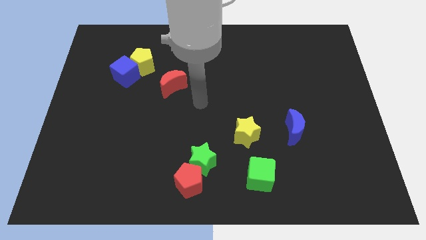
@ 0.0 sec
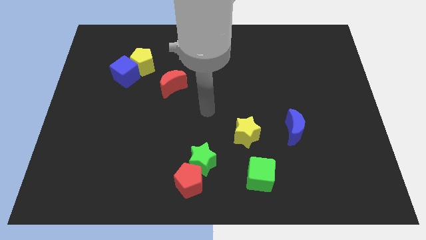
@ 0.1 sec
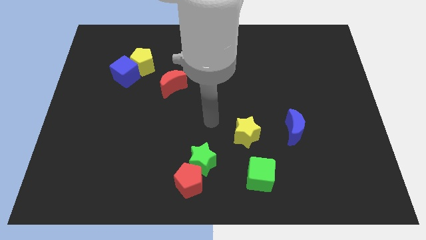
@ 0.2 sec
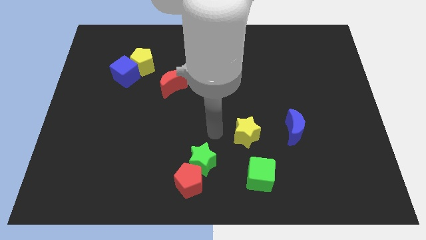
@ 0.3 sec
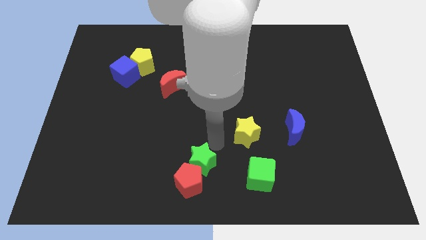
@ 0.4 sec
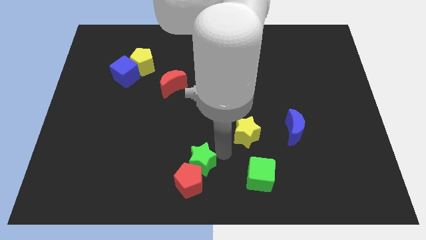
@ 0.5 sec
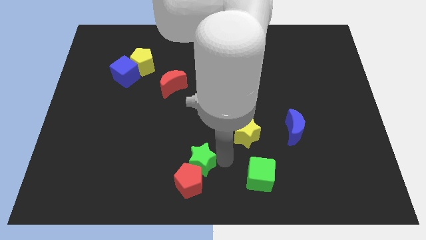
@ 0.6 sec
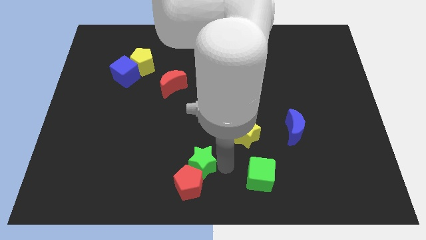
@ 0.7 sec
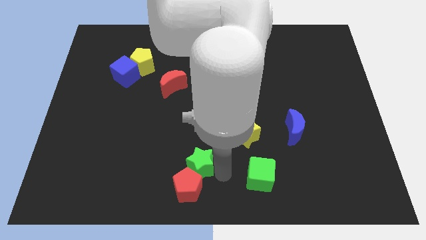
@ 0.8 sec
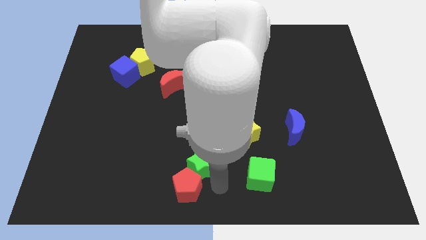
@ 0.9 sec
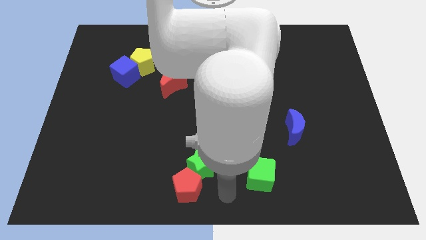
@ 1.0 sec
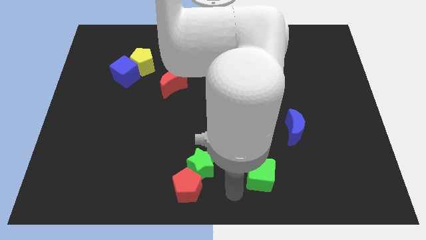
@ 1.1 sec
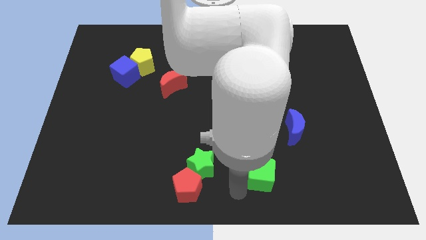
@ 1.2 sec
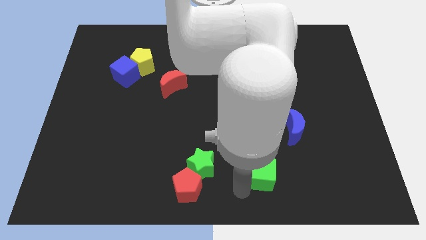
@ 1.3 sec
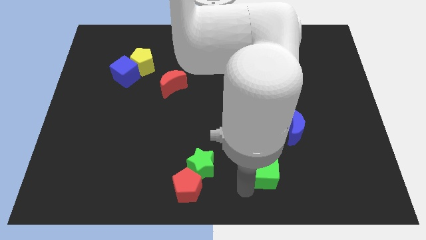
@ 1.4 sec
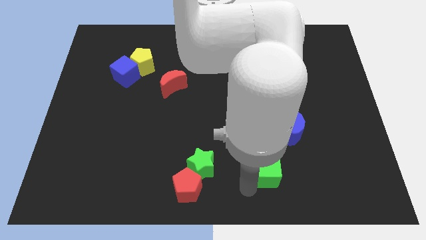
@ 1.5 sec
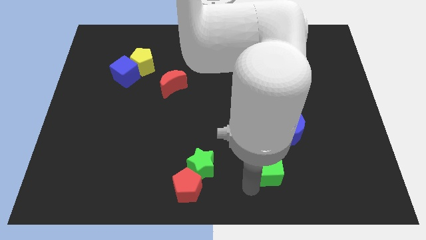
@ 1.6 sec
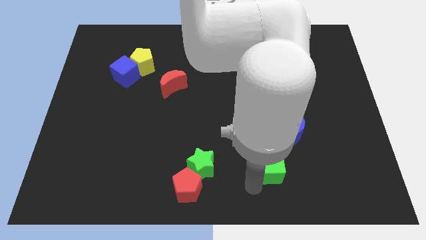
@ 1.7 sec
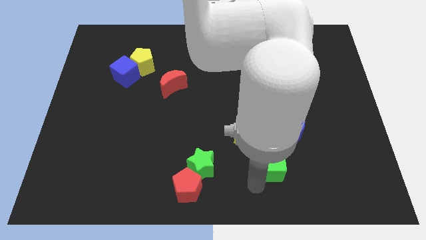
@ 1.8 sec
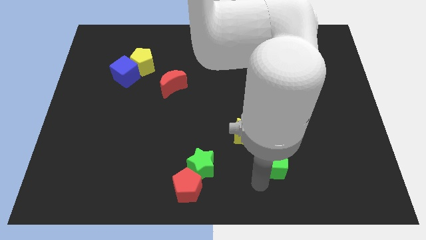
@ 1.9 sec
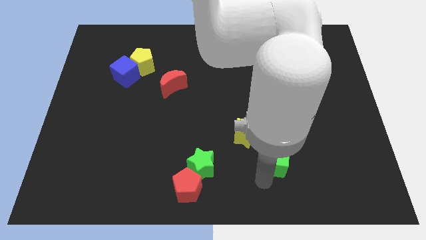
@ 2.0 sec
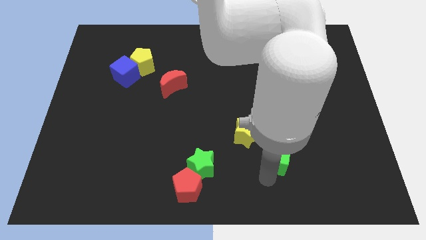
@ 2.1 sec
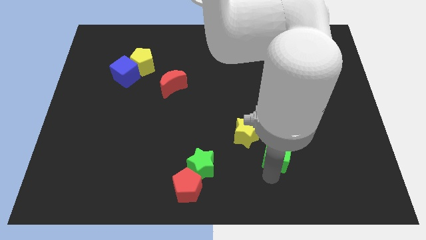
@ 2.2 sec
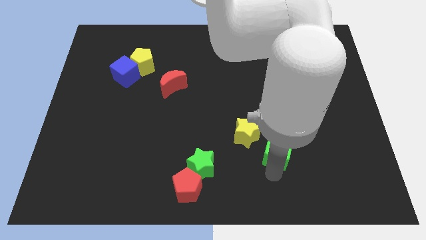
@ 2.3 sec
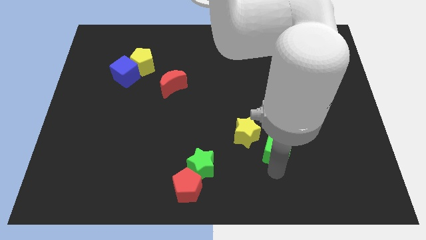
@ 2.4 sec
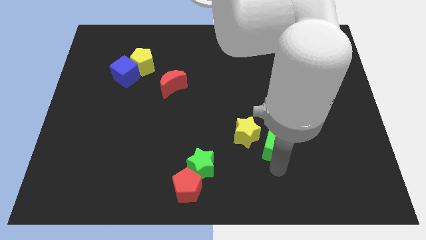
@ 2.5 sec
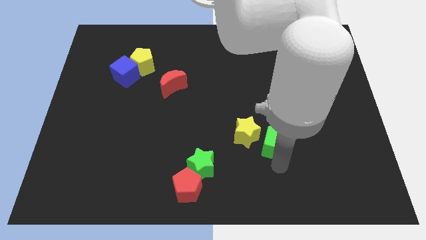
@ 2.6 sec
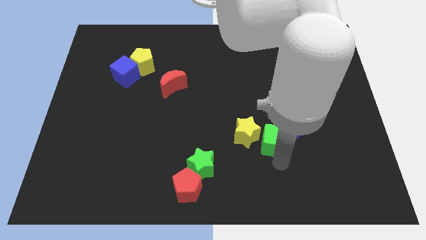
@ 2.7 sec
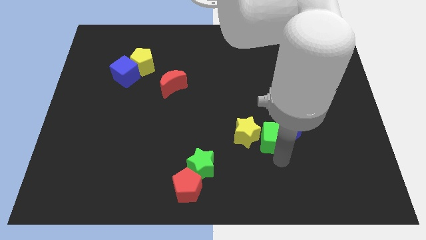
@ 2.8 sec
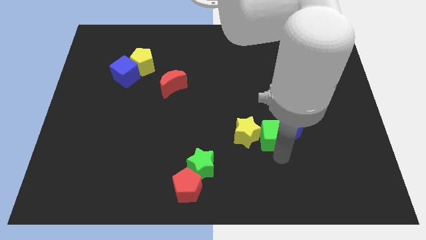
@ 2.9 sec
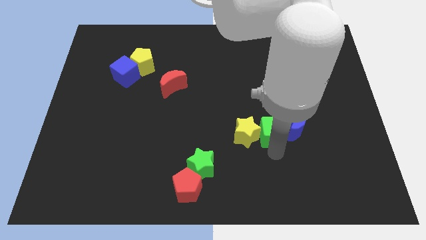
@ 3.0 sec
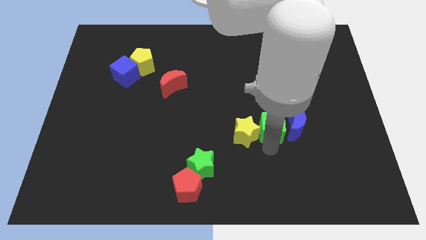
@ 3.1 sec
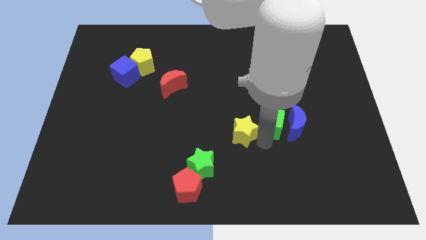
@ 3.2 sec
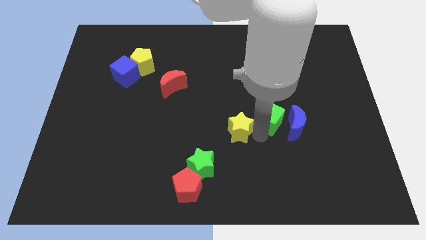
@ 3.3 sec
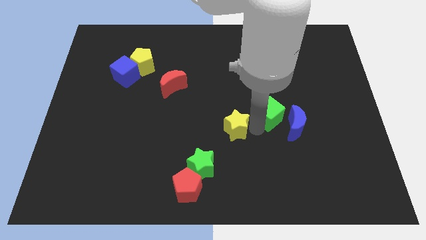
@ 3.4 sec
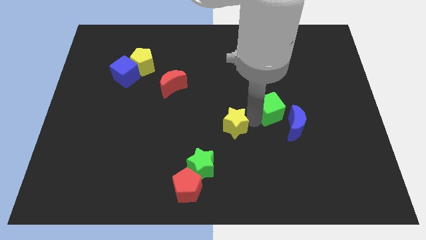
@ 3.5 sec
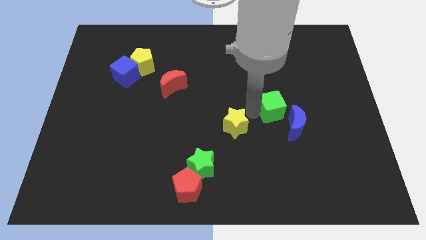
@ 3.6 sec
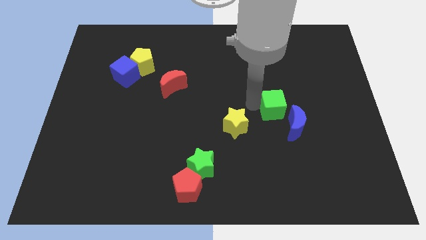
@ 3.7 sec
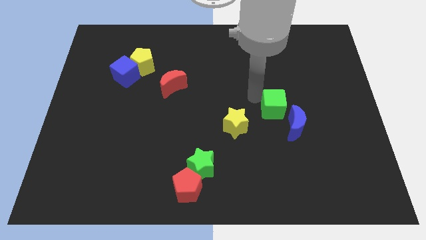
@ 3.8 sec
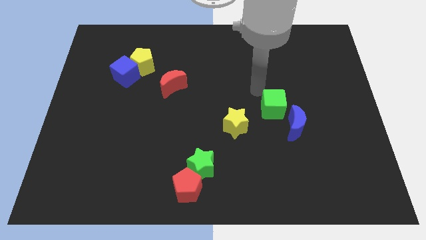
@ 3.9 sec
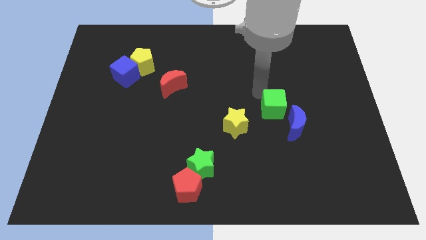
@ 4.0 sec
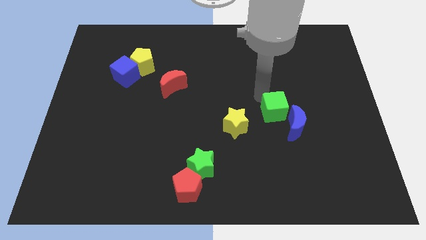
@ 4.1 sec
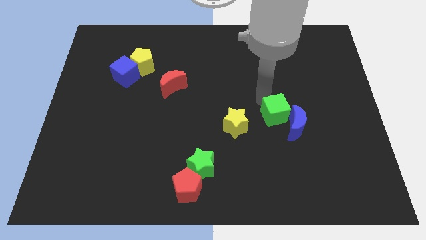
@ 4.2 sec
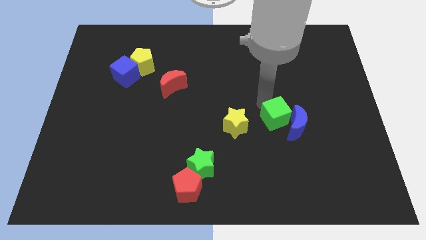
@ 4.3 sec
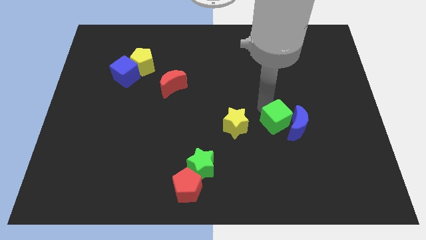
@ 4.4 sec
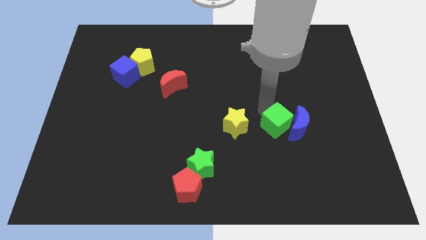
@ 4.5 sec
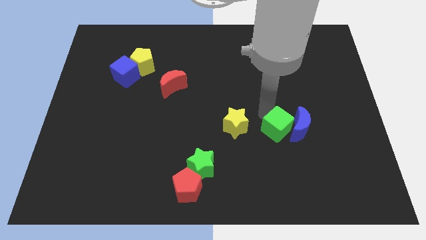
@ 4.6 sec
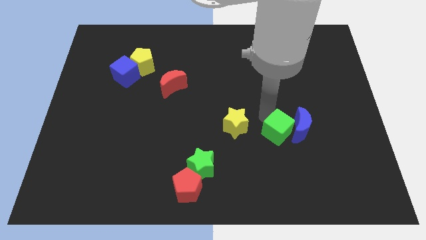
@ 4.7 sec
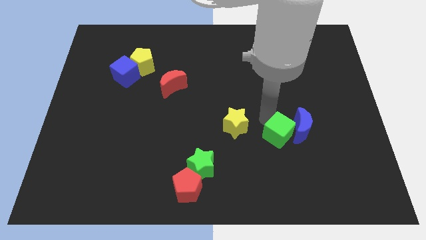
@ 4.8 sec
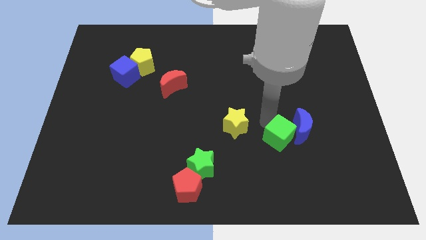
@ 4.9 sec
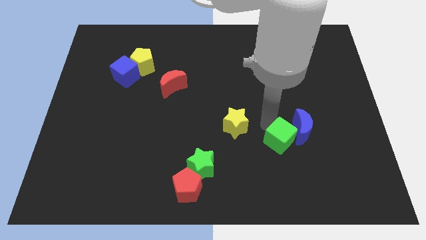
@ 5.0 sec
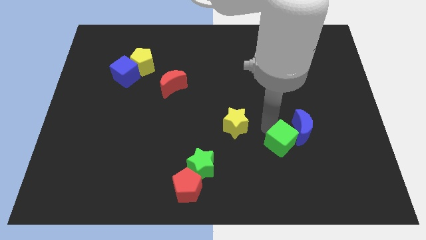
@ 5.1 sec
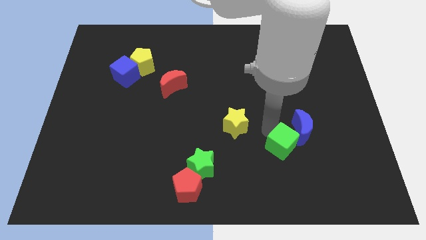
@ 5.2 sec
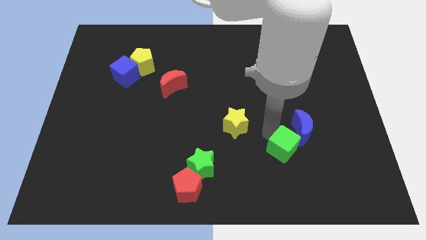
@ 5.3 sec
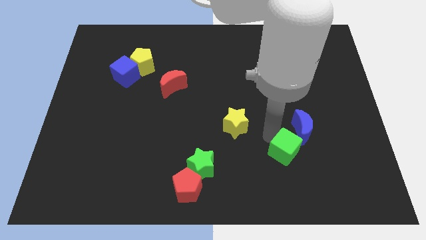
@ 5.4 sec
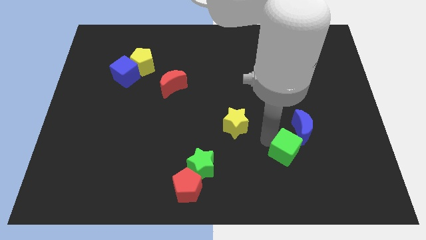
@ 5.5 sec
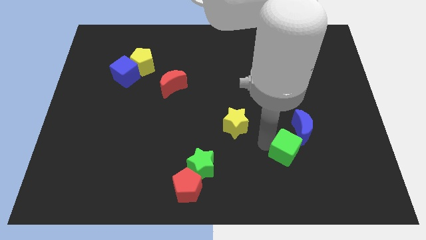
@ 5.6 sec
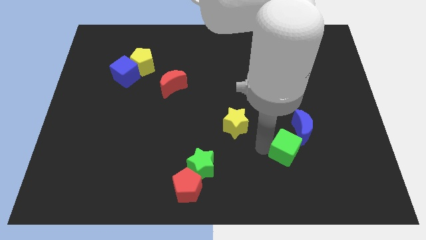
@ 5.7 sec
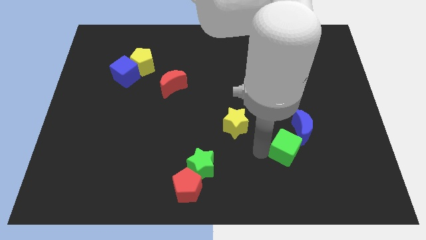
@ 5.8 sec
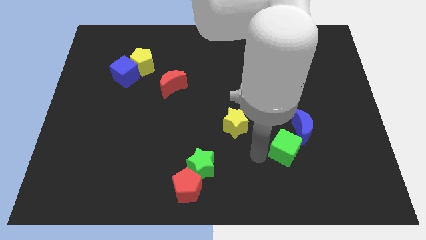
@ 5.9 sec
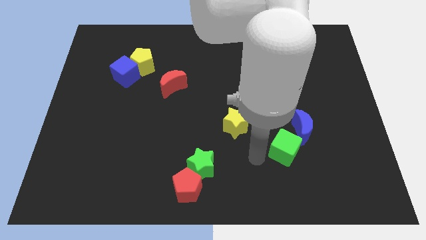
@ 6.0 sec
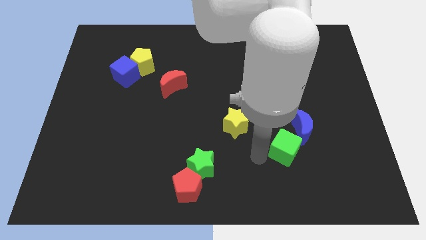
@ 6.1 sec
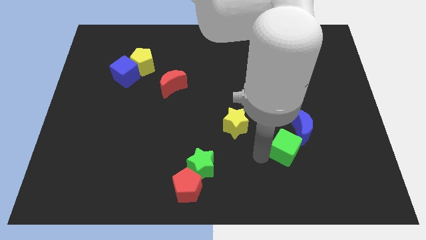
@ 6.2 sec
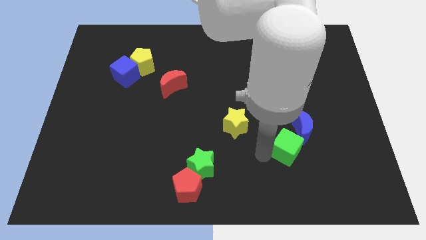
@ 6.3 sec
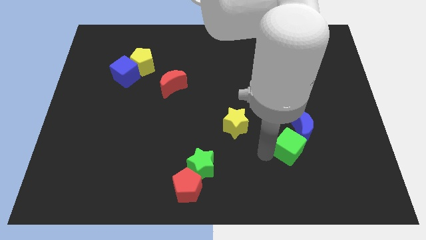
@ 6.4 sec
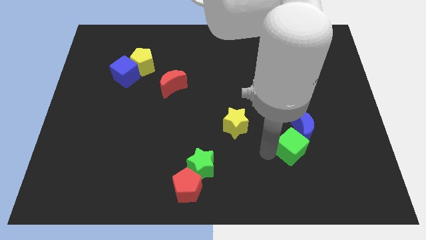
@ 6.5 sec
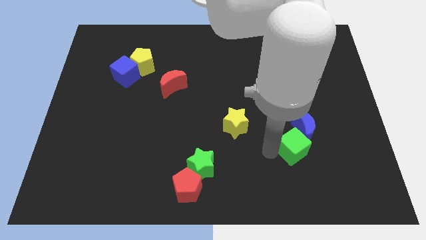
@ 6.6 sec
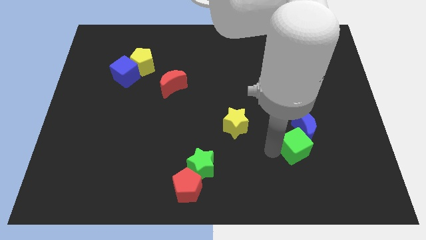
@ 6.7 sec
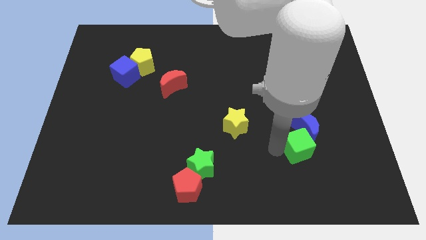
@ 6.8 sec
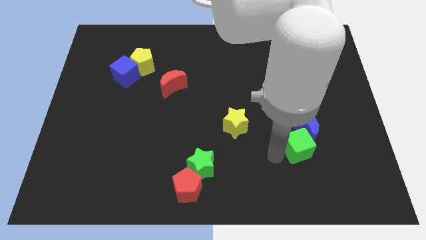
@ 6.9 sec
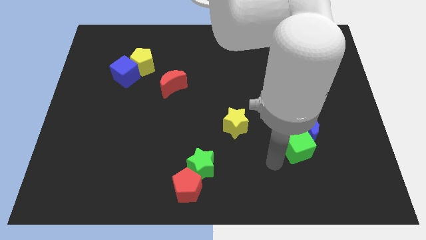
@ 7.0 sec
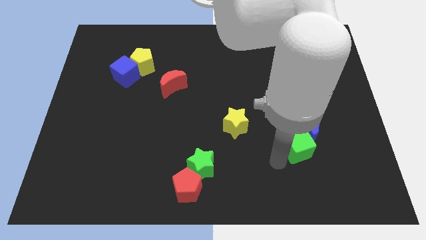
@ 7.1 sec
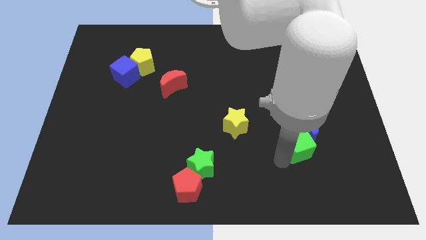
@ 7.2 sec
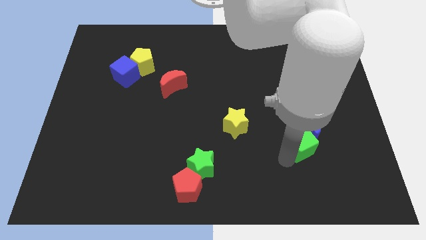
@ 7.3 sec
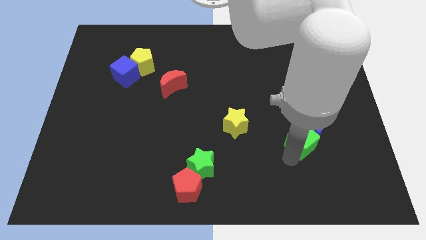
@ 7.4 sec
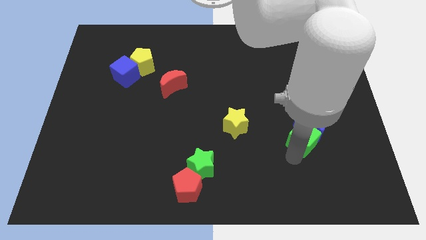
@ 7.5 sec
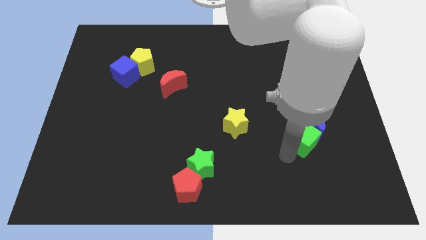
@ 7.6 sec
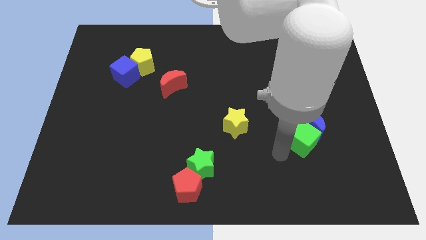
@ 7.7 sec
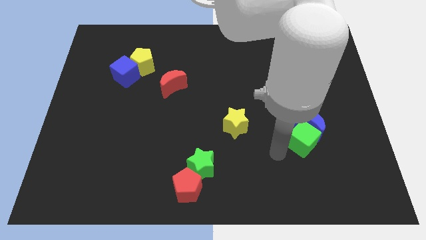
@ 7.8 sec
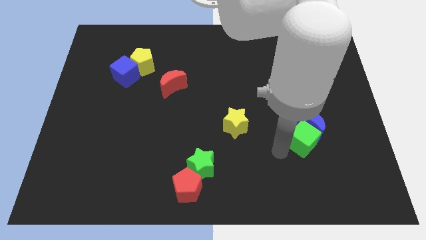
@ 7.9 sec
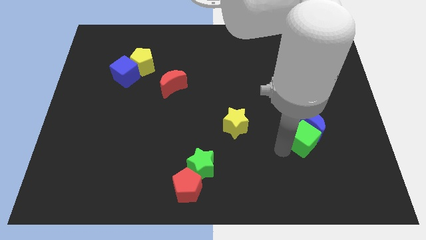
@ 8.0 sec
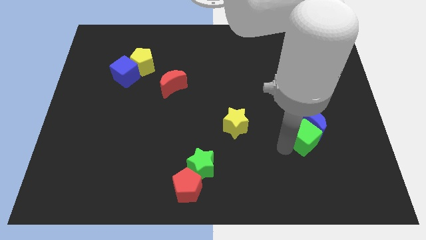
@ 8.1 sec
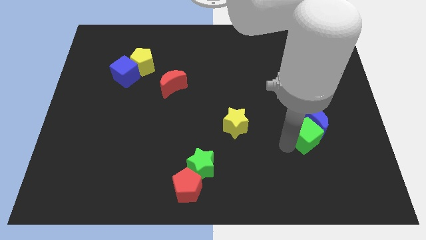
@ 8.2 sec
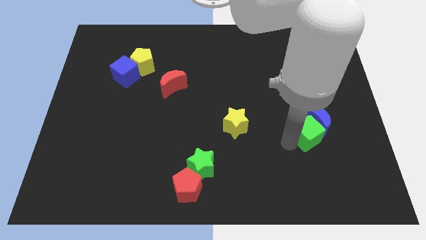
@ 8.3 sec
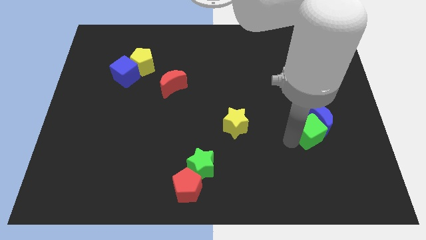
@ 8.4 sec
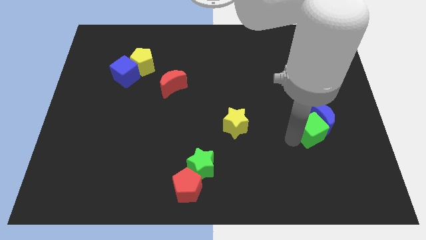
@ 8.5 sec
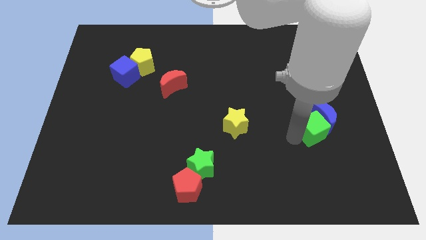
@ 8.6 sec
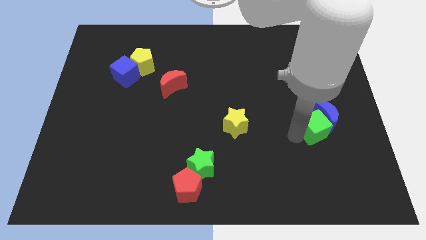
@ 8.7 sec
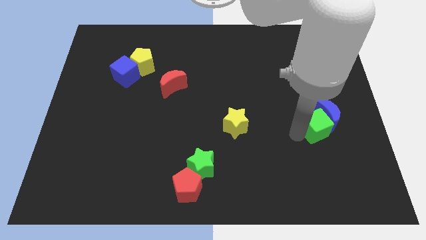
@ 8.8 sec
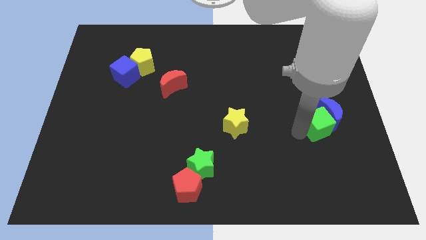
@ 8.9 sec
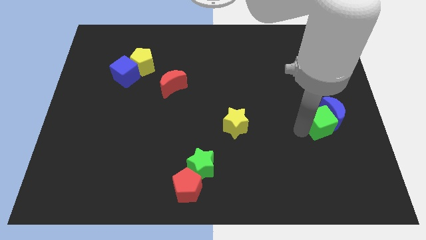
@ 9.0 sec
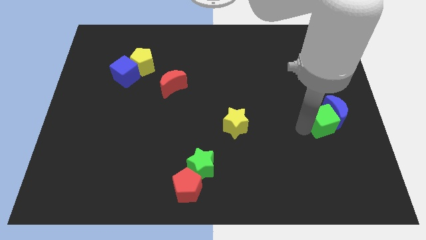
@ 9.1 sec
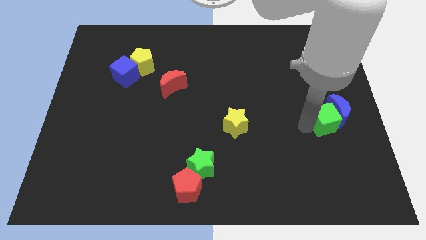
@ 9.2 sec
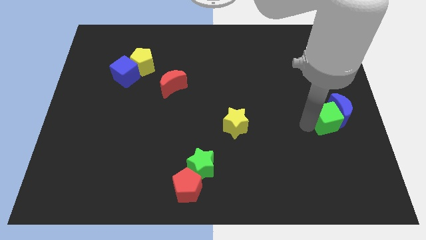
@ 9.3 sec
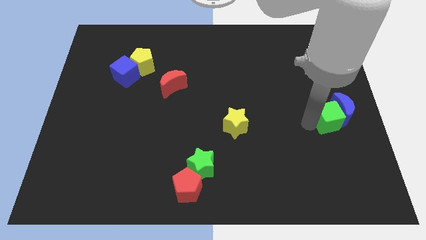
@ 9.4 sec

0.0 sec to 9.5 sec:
move the green cube to the right side
